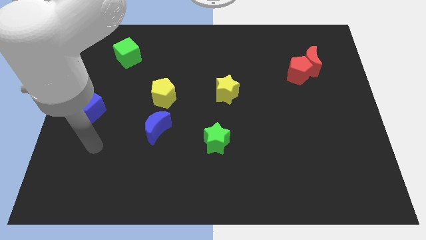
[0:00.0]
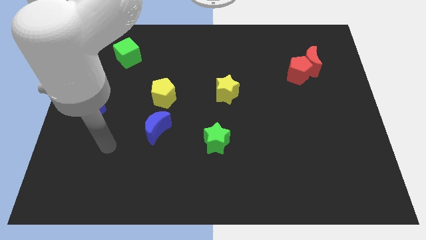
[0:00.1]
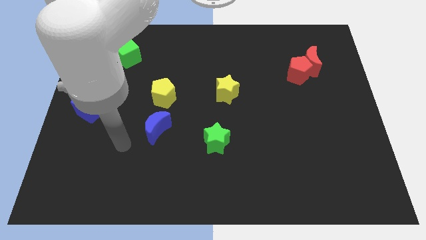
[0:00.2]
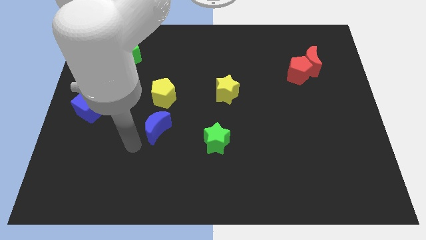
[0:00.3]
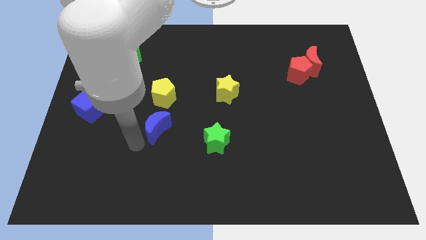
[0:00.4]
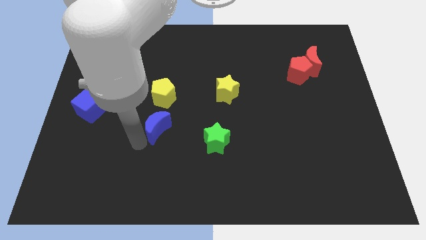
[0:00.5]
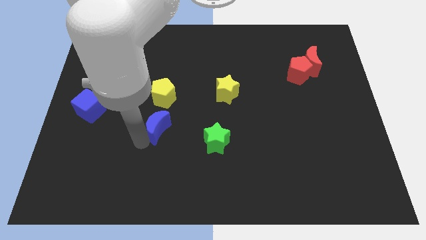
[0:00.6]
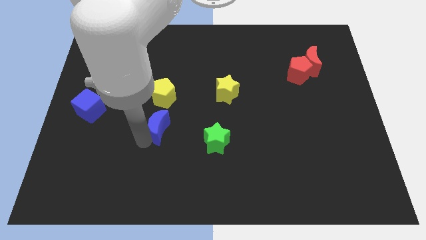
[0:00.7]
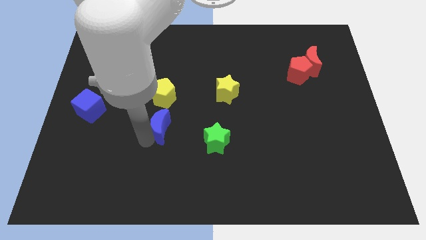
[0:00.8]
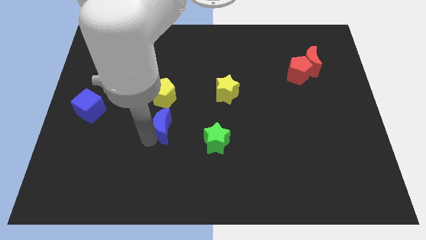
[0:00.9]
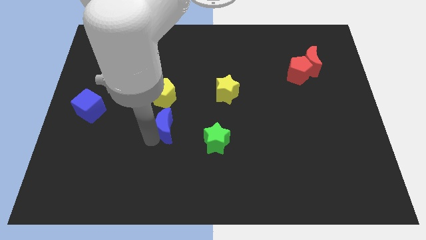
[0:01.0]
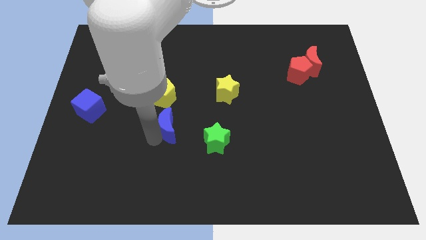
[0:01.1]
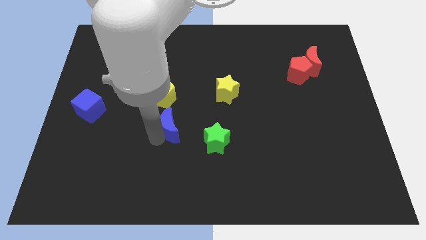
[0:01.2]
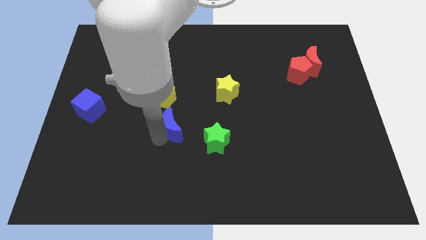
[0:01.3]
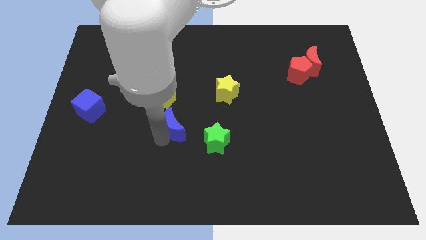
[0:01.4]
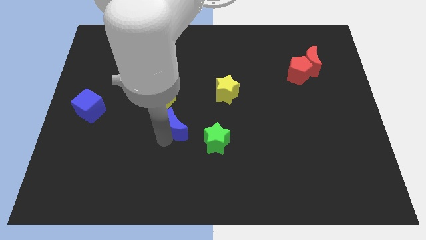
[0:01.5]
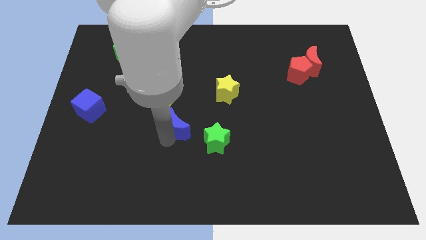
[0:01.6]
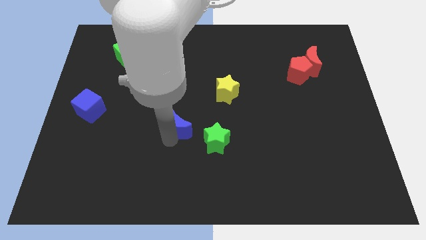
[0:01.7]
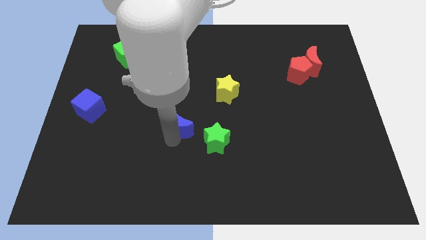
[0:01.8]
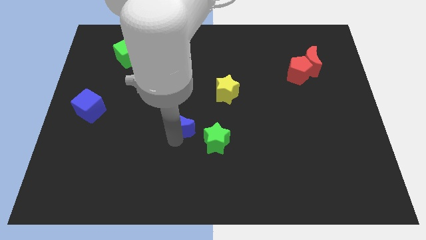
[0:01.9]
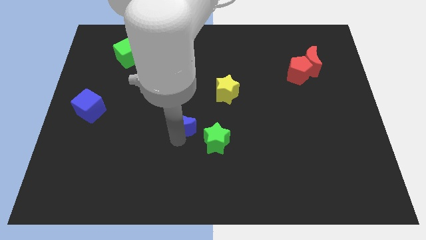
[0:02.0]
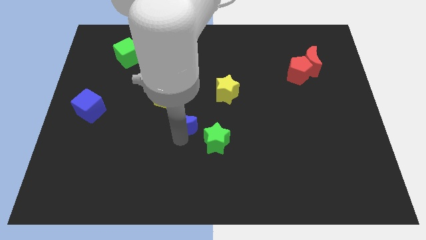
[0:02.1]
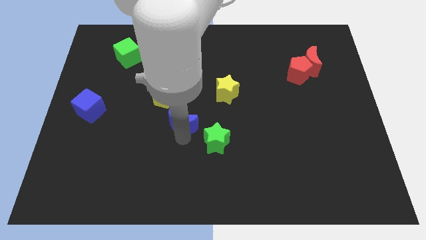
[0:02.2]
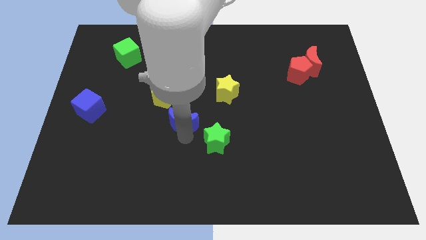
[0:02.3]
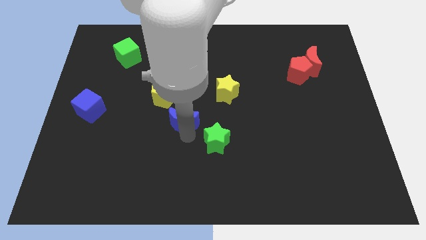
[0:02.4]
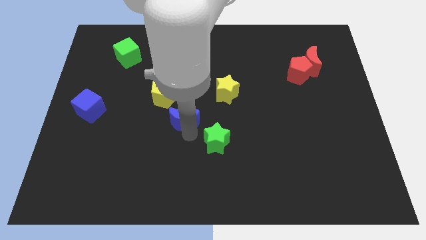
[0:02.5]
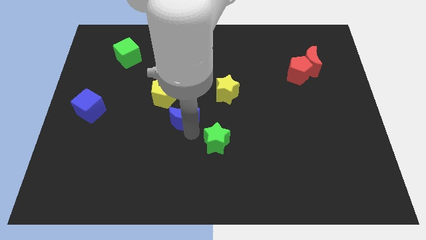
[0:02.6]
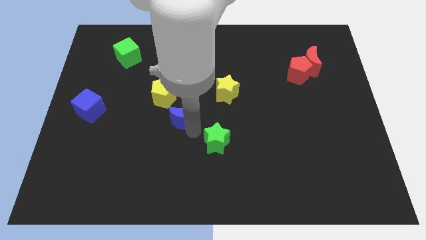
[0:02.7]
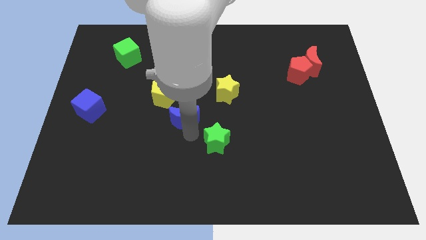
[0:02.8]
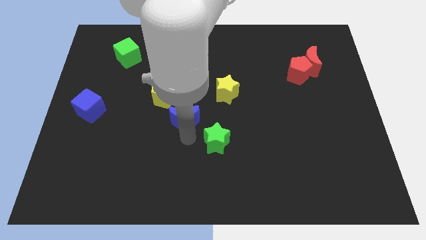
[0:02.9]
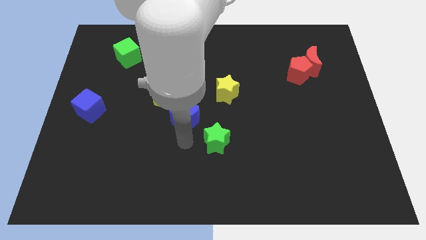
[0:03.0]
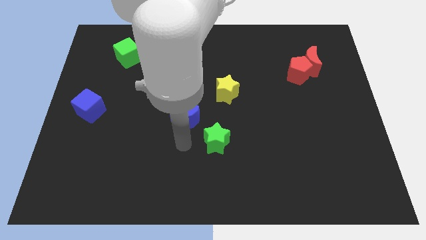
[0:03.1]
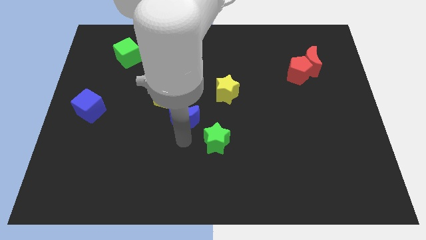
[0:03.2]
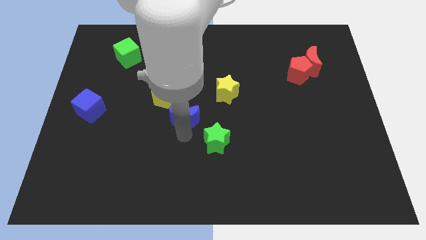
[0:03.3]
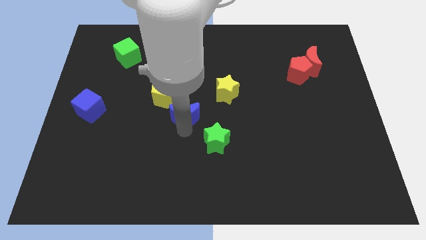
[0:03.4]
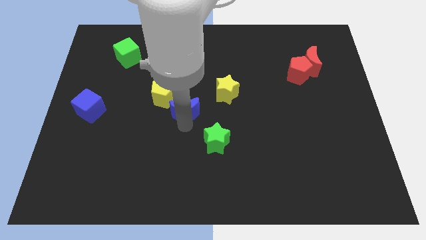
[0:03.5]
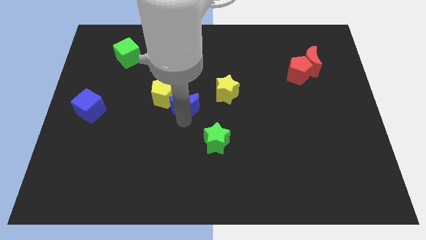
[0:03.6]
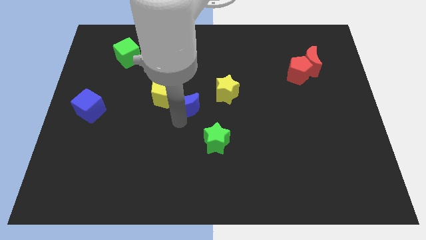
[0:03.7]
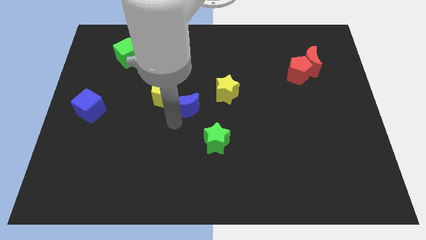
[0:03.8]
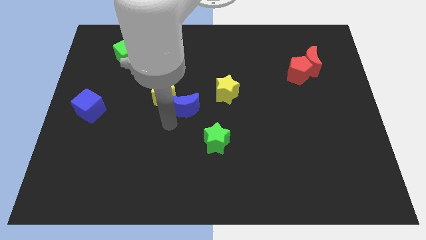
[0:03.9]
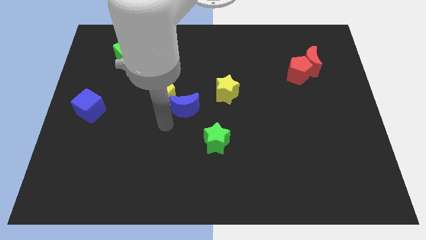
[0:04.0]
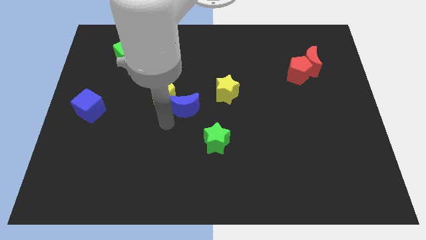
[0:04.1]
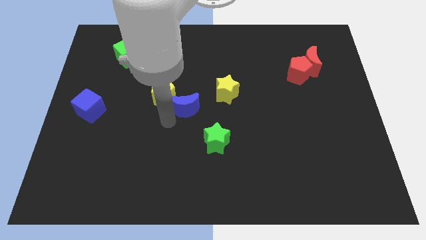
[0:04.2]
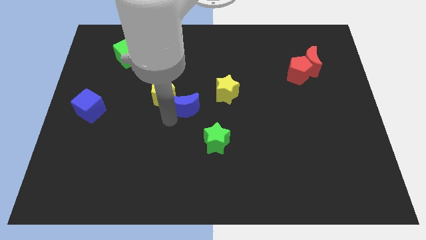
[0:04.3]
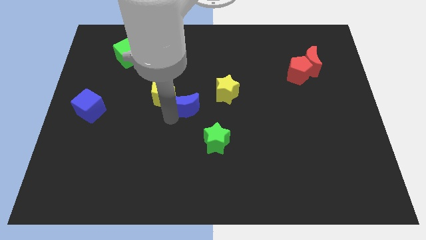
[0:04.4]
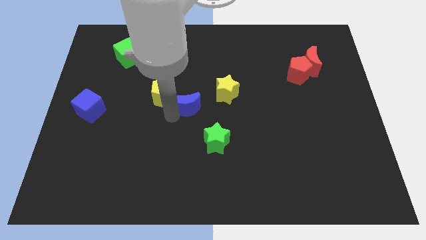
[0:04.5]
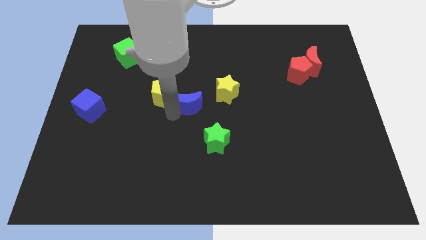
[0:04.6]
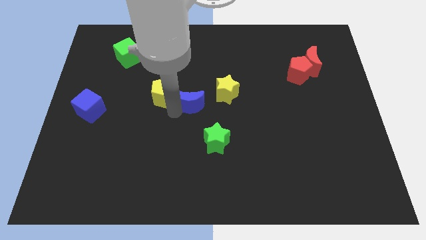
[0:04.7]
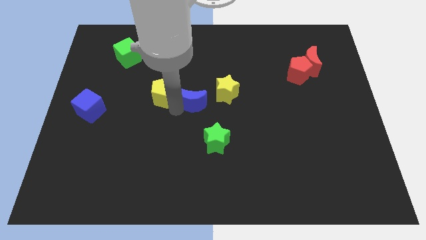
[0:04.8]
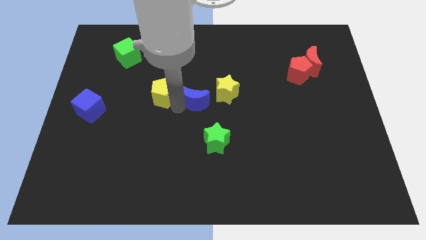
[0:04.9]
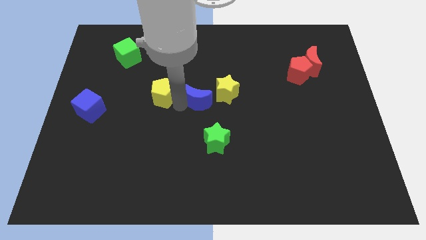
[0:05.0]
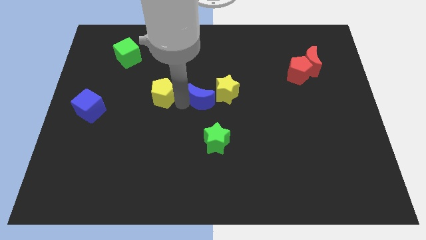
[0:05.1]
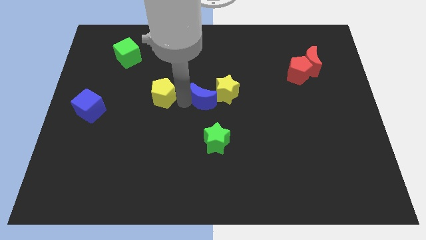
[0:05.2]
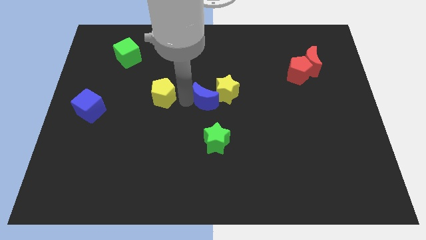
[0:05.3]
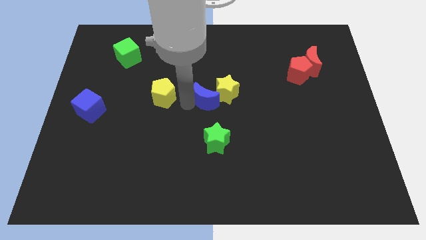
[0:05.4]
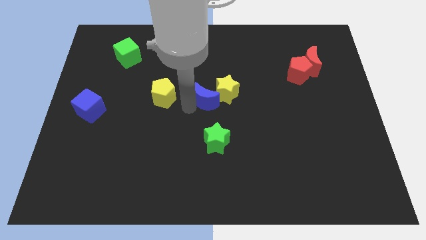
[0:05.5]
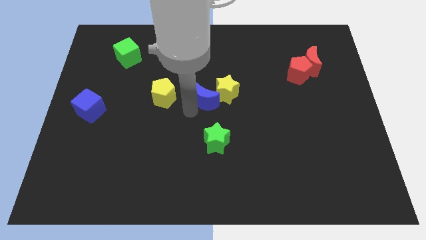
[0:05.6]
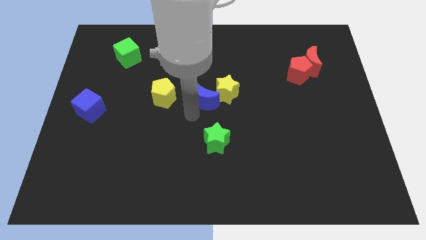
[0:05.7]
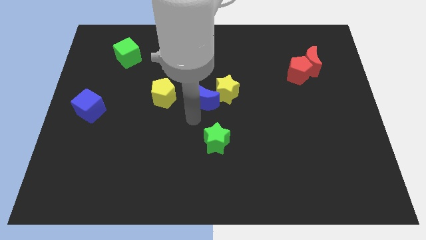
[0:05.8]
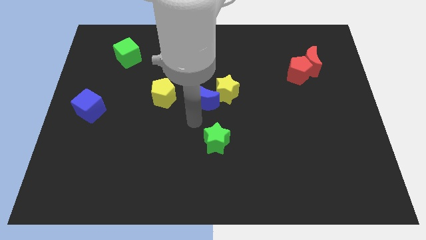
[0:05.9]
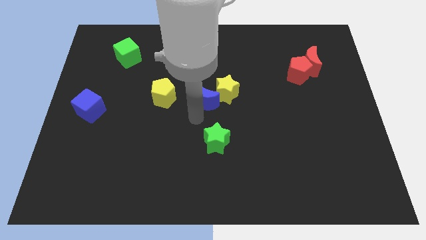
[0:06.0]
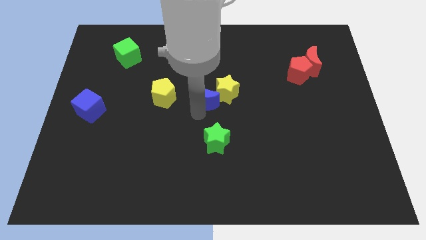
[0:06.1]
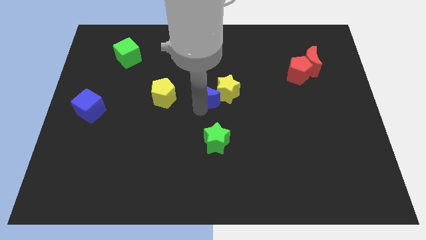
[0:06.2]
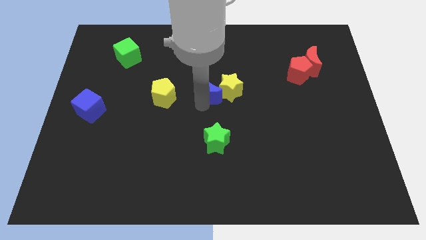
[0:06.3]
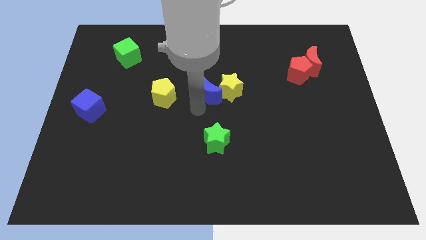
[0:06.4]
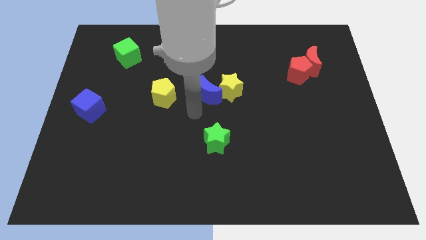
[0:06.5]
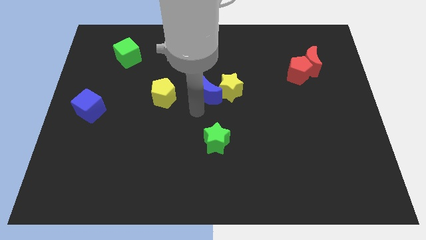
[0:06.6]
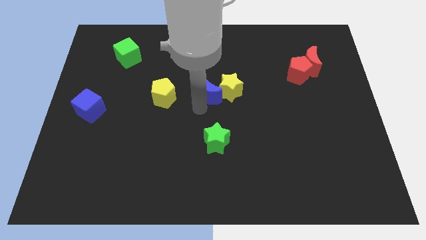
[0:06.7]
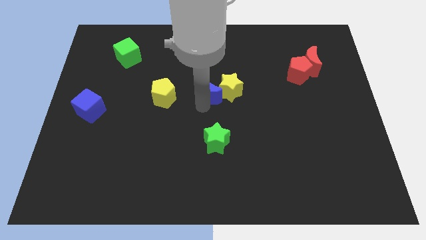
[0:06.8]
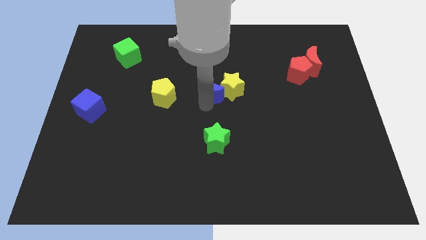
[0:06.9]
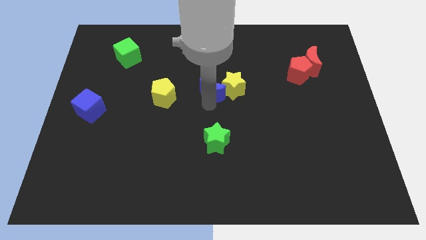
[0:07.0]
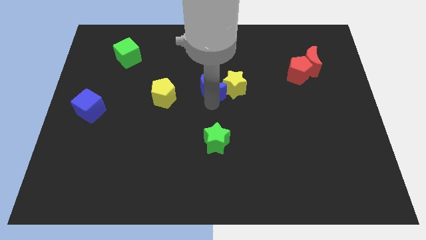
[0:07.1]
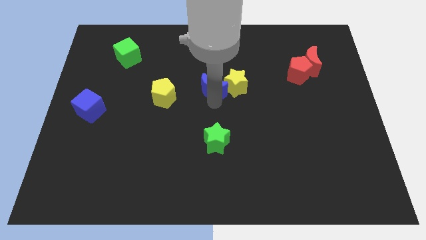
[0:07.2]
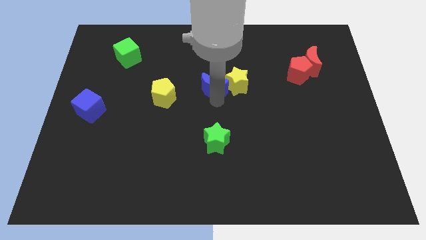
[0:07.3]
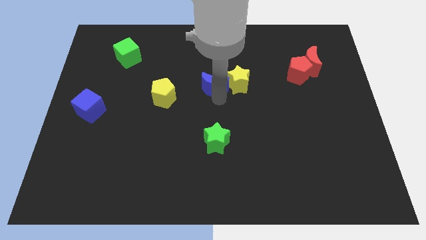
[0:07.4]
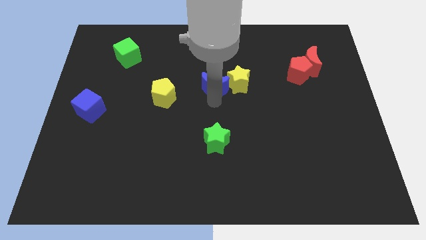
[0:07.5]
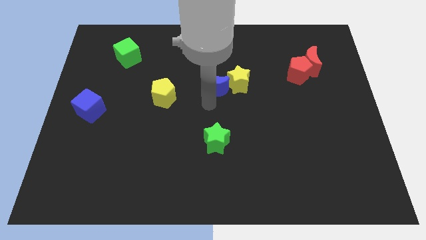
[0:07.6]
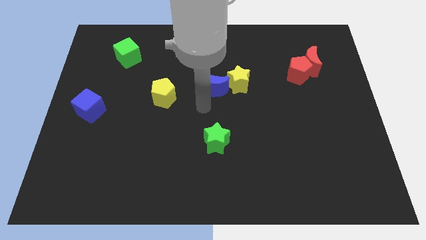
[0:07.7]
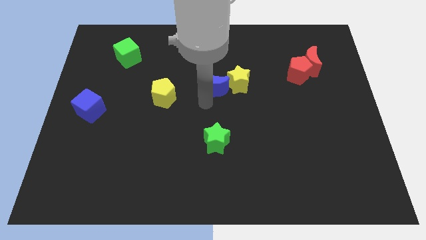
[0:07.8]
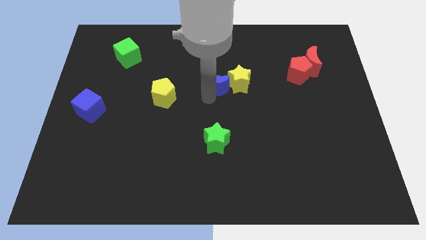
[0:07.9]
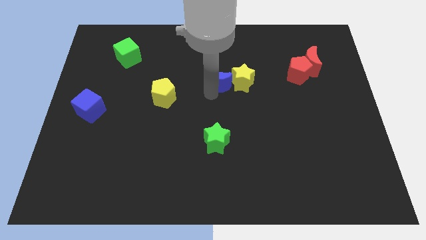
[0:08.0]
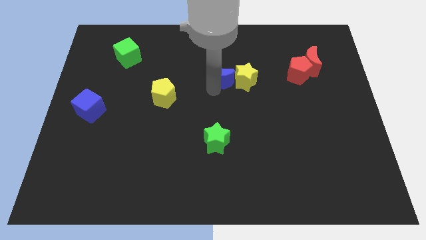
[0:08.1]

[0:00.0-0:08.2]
push the blue moon up and right
